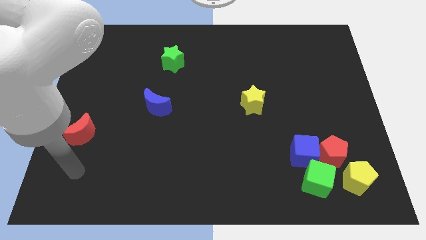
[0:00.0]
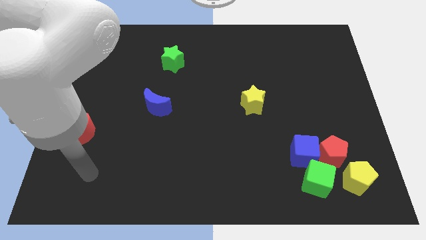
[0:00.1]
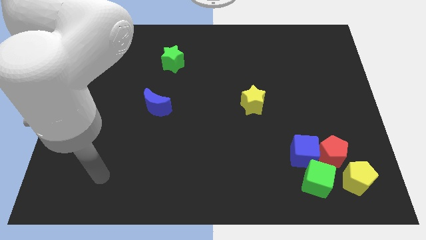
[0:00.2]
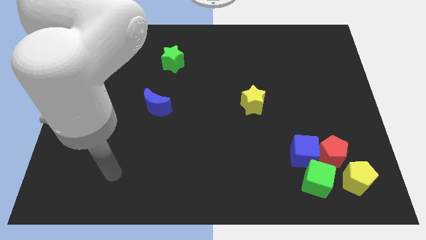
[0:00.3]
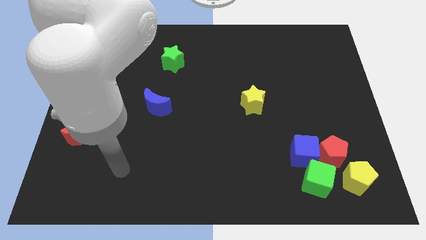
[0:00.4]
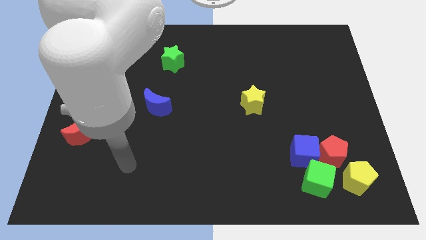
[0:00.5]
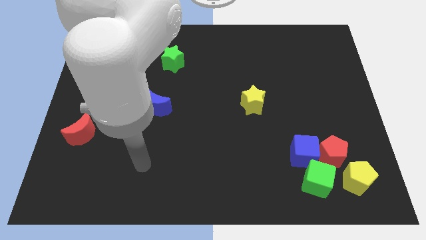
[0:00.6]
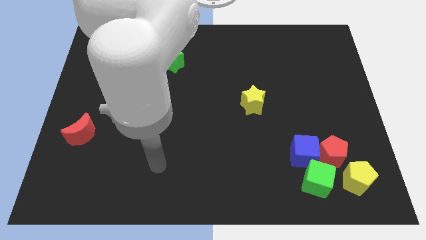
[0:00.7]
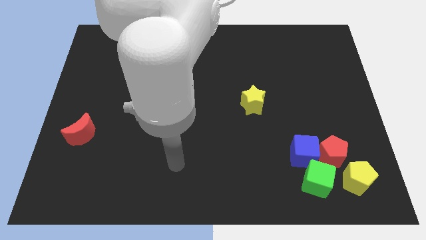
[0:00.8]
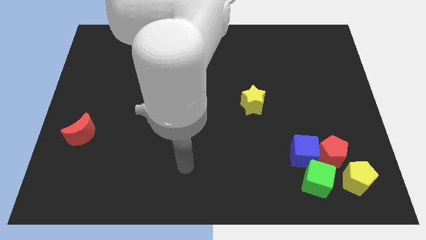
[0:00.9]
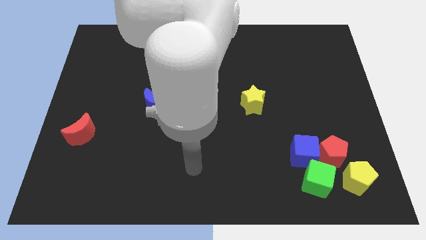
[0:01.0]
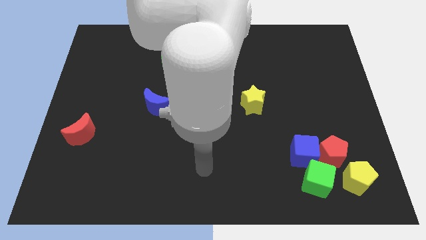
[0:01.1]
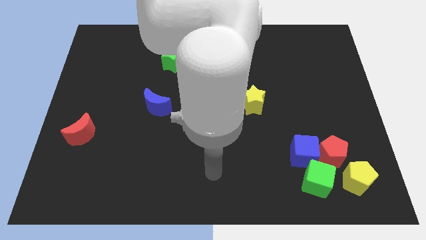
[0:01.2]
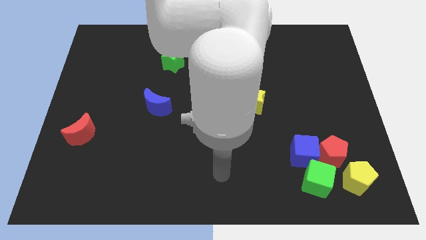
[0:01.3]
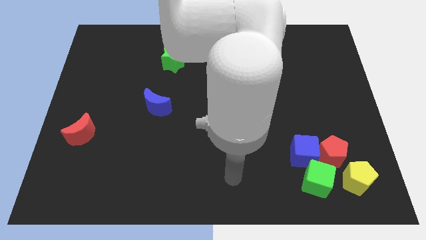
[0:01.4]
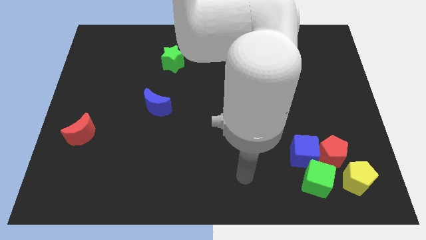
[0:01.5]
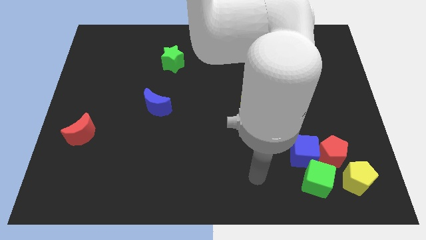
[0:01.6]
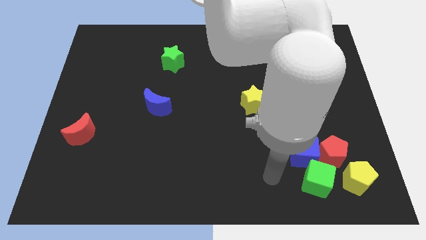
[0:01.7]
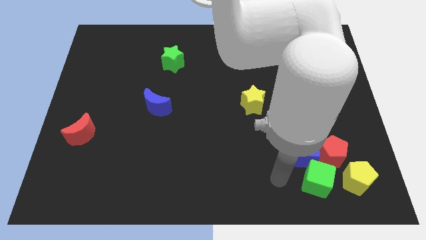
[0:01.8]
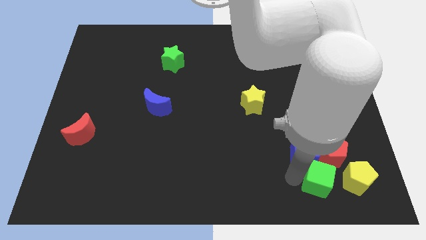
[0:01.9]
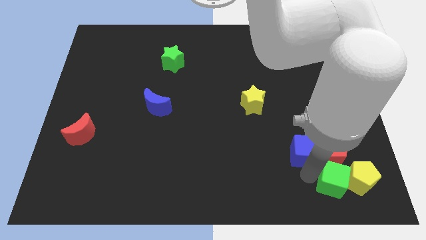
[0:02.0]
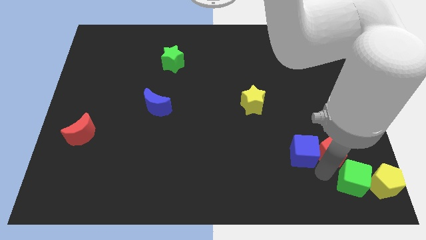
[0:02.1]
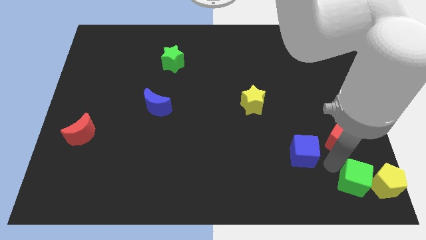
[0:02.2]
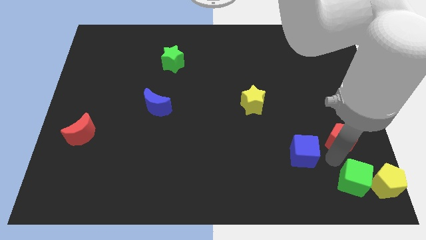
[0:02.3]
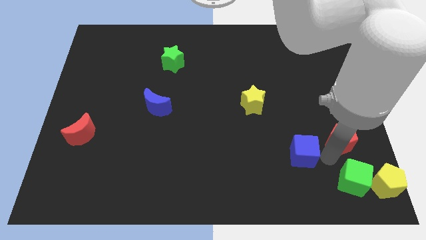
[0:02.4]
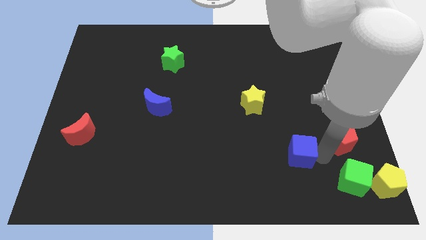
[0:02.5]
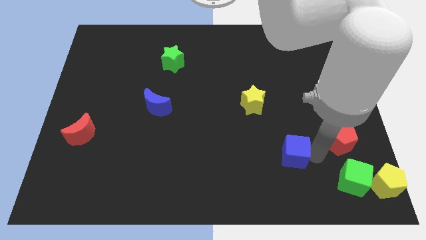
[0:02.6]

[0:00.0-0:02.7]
move the blue cube away from the red pentagon and green cube

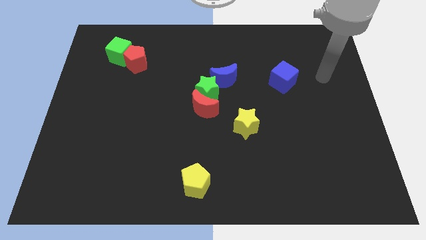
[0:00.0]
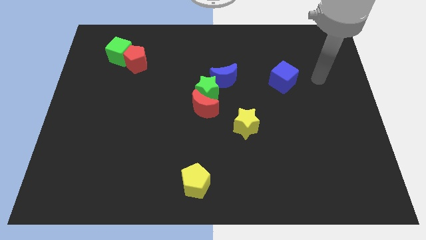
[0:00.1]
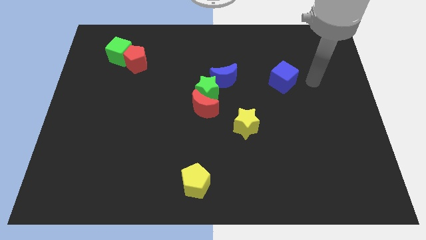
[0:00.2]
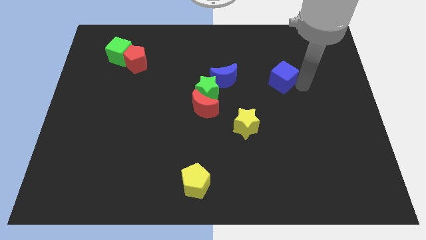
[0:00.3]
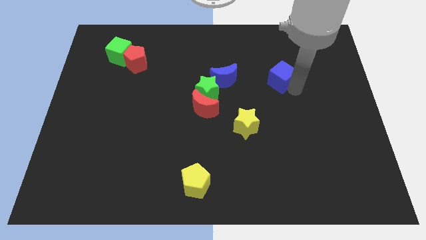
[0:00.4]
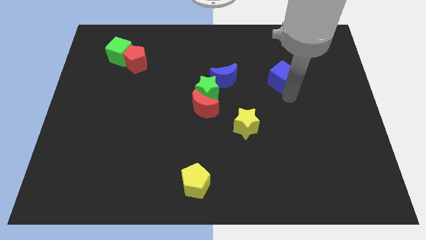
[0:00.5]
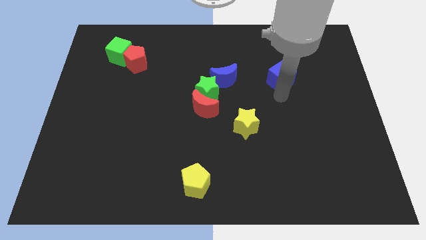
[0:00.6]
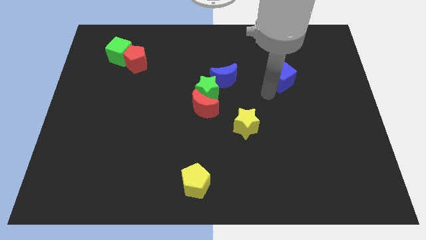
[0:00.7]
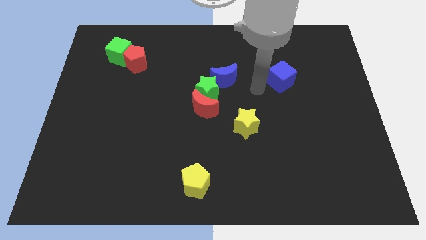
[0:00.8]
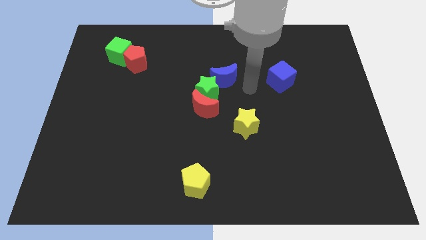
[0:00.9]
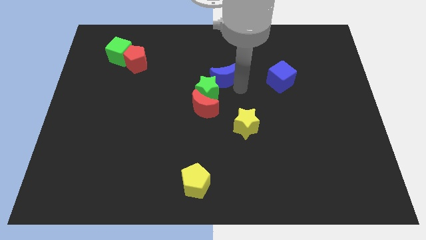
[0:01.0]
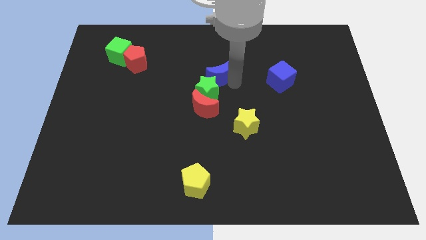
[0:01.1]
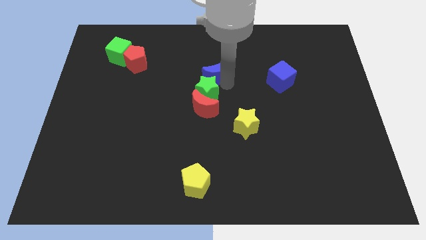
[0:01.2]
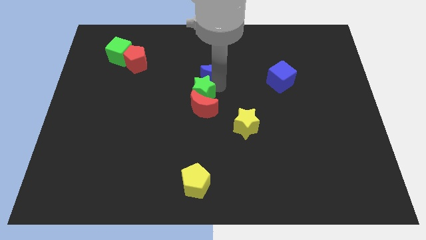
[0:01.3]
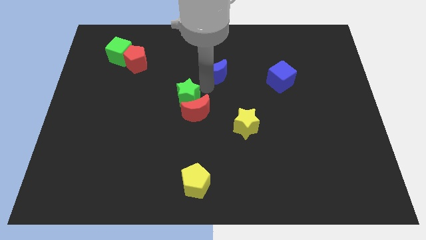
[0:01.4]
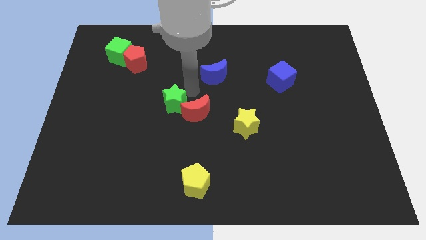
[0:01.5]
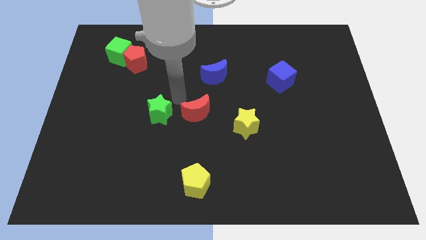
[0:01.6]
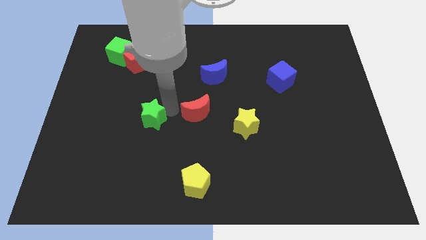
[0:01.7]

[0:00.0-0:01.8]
separate the red moon from the green star

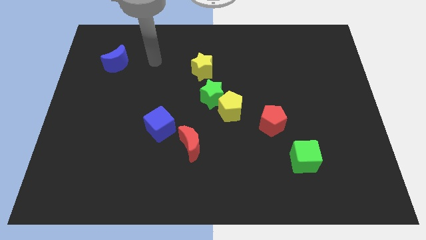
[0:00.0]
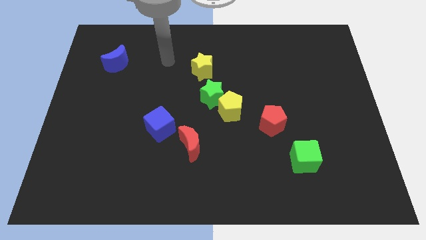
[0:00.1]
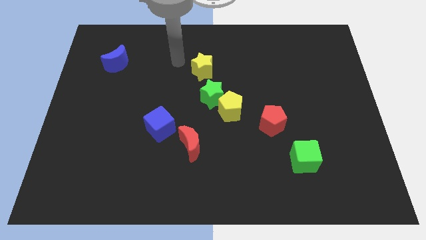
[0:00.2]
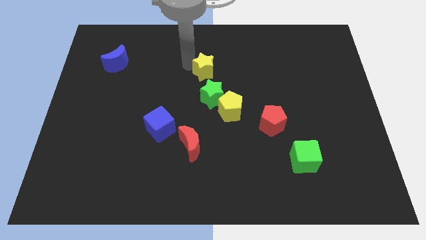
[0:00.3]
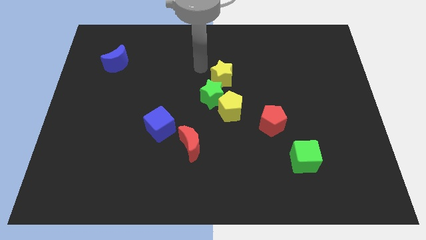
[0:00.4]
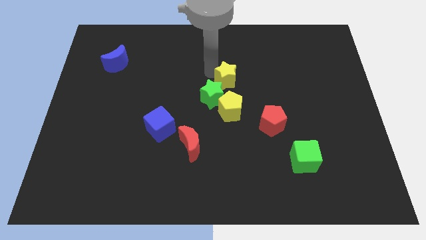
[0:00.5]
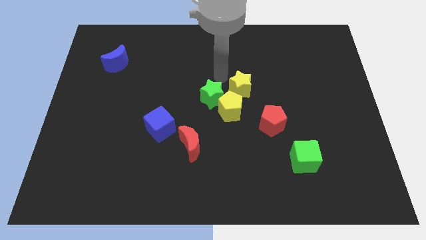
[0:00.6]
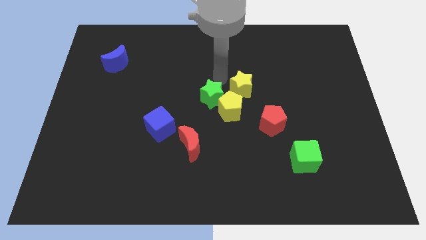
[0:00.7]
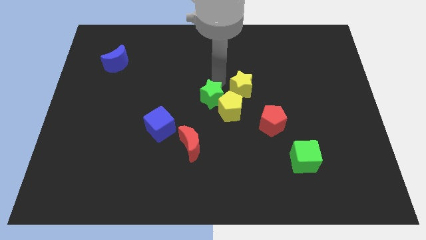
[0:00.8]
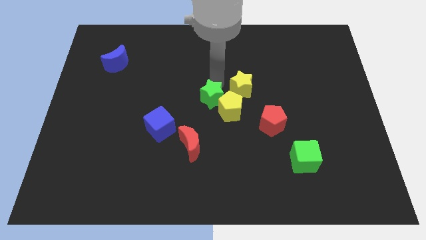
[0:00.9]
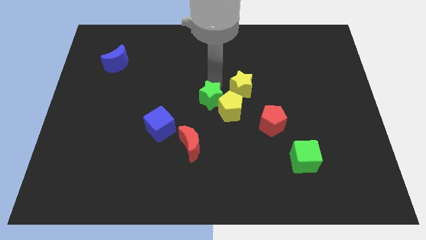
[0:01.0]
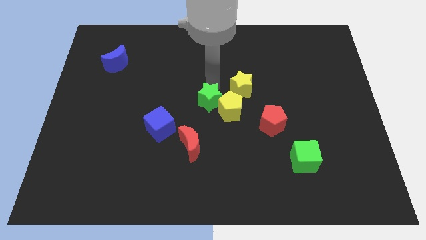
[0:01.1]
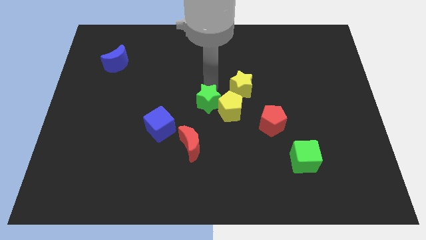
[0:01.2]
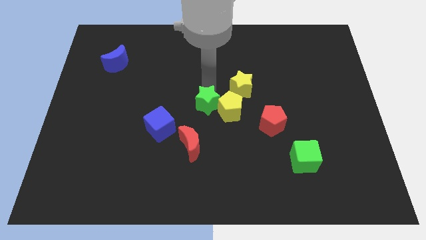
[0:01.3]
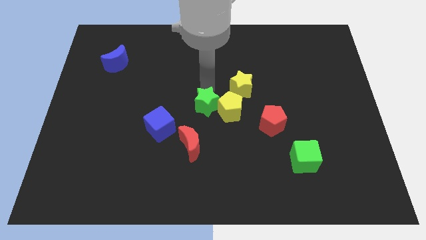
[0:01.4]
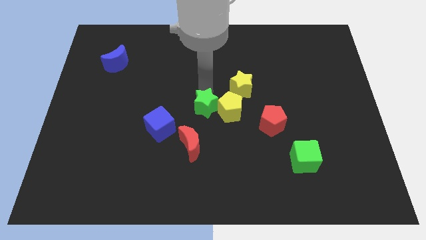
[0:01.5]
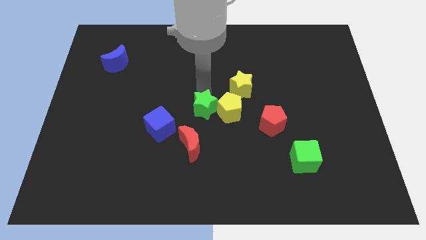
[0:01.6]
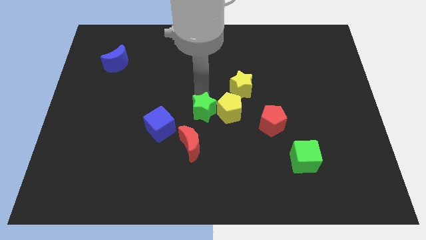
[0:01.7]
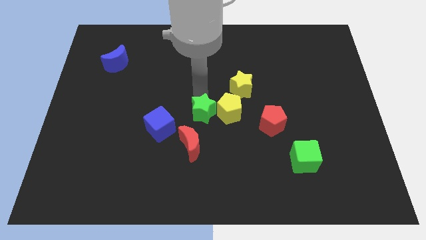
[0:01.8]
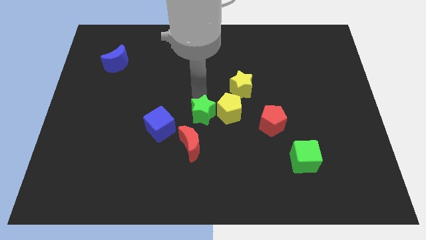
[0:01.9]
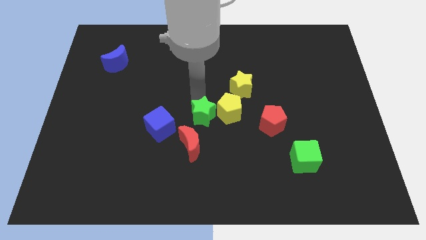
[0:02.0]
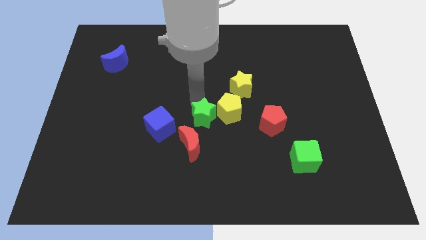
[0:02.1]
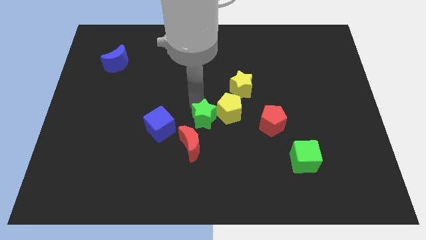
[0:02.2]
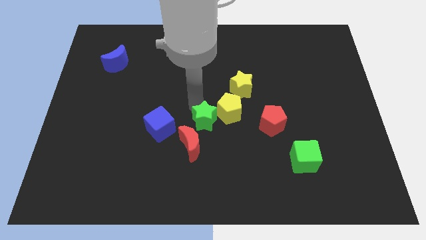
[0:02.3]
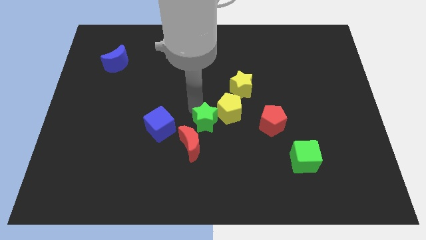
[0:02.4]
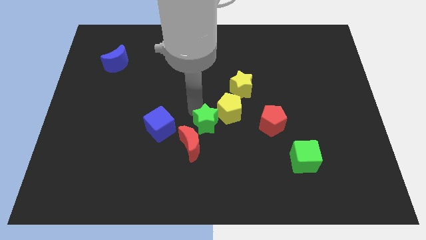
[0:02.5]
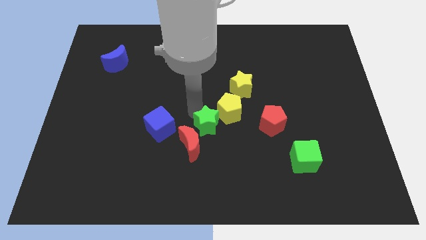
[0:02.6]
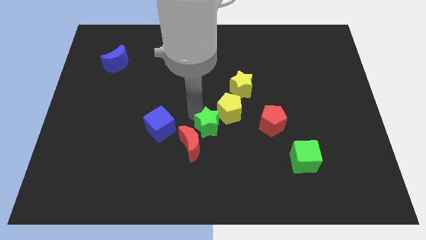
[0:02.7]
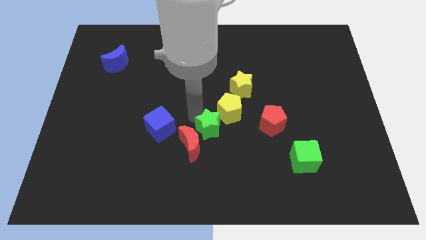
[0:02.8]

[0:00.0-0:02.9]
move the green star away from the yellow pentagon and yellow star

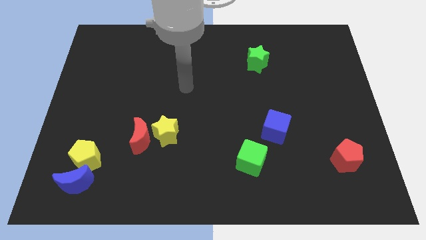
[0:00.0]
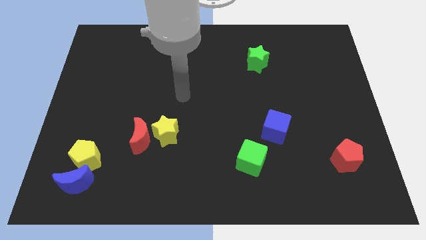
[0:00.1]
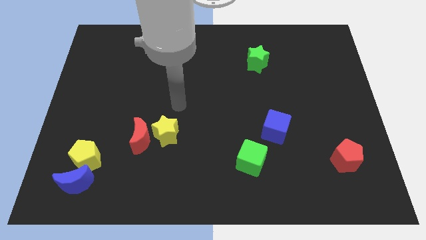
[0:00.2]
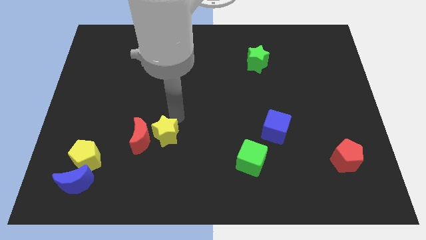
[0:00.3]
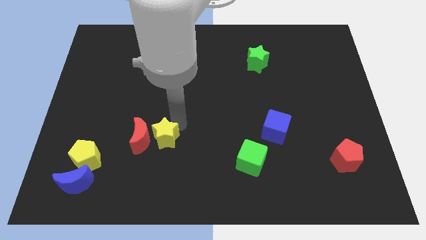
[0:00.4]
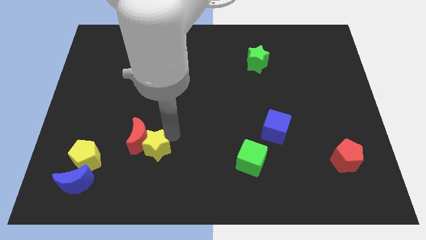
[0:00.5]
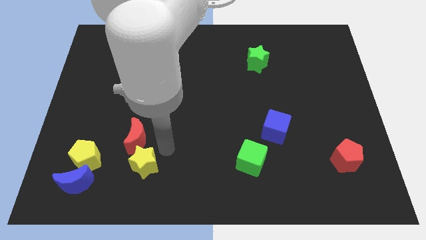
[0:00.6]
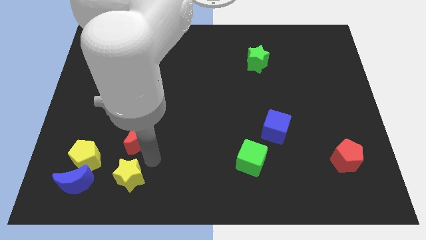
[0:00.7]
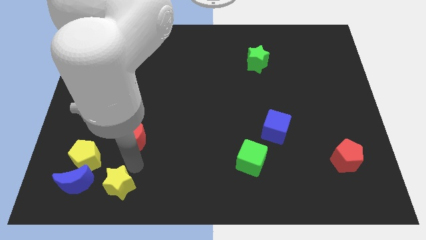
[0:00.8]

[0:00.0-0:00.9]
move the red moon away from the yellow star

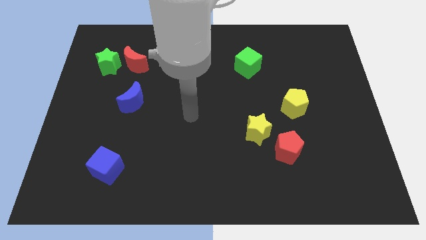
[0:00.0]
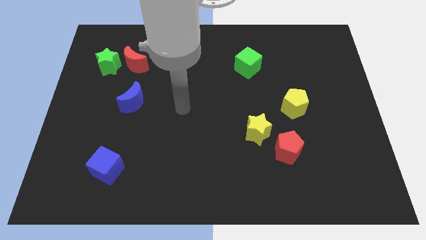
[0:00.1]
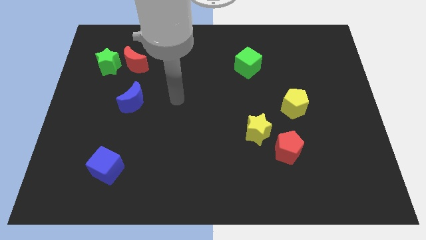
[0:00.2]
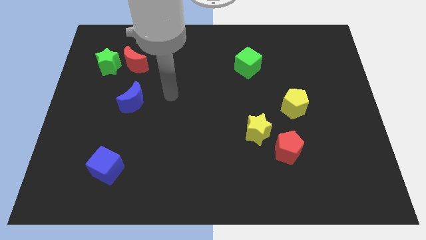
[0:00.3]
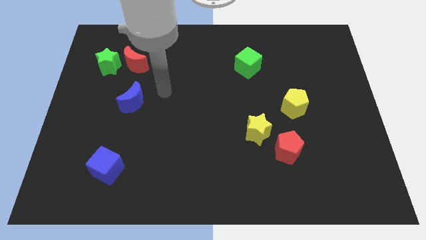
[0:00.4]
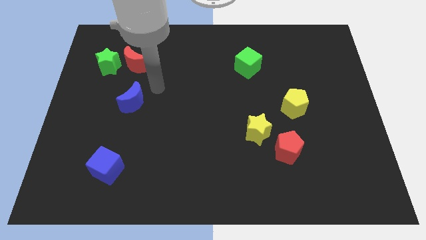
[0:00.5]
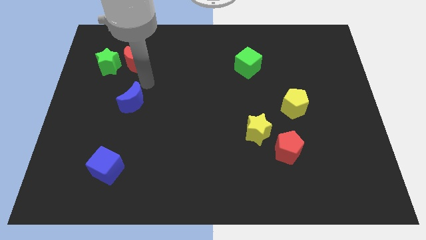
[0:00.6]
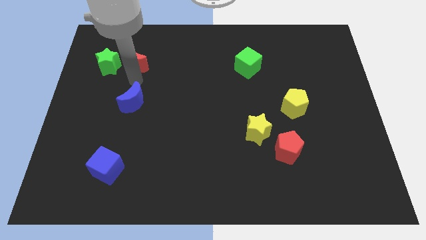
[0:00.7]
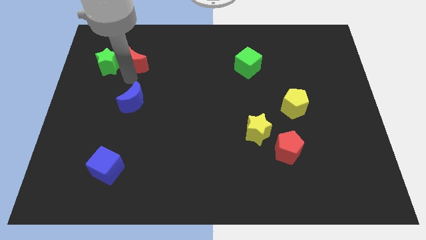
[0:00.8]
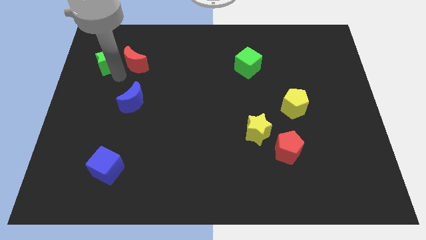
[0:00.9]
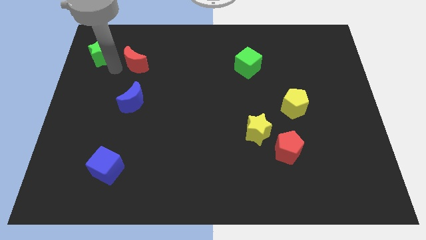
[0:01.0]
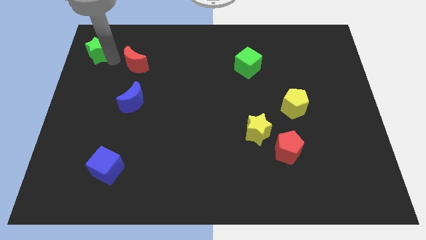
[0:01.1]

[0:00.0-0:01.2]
move the red moon away from the green star

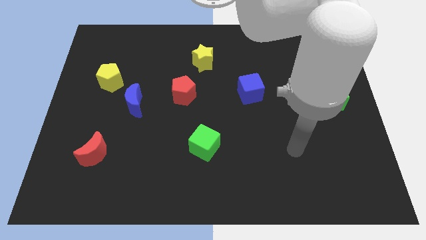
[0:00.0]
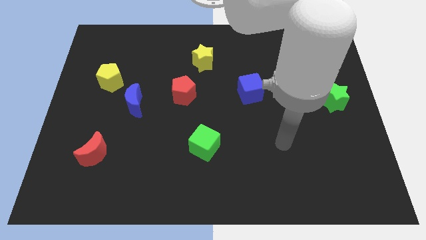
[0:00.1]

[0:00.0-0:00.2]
pull the blue moon apart from the yellow pentagon
